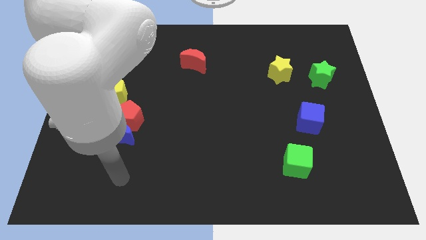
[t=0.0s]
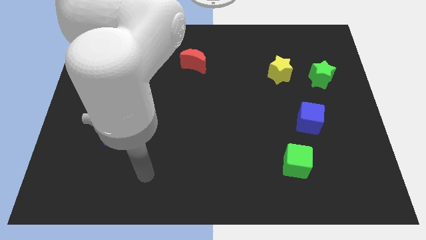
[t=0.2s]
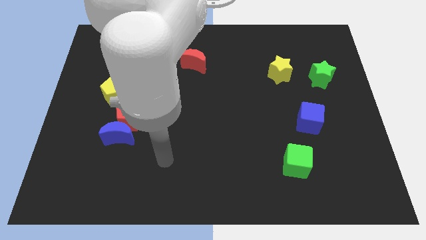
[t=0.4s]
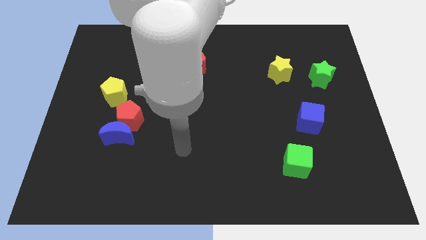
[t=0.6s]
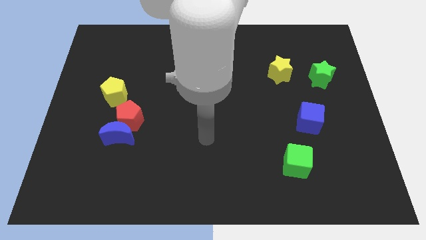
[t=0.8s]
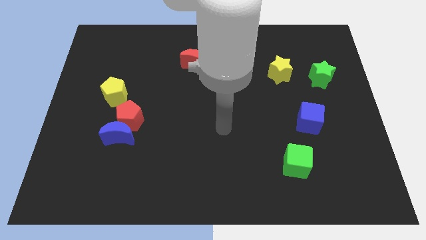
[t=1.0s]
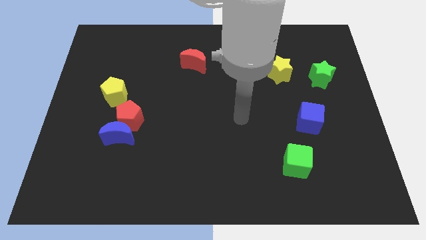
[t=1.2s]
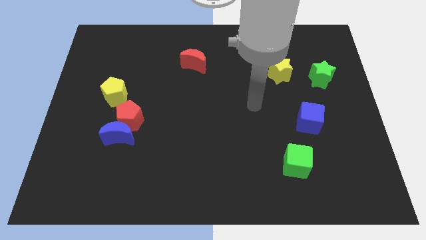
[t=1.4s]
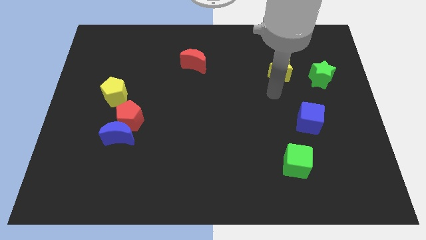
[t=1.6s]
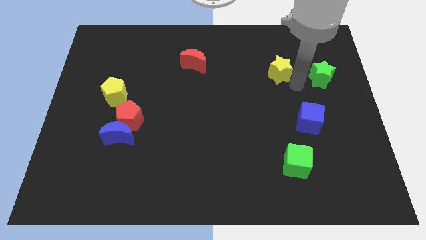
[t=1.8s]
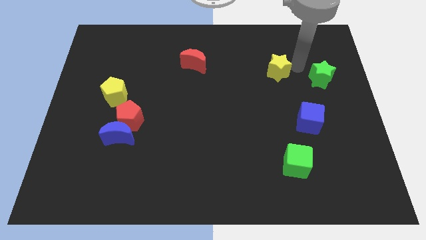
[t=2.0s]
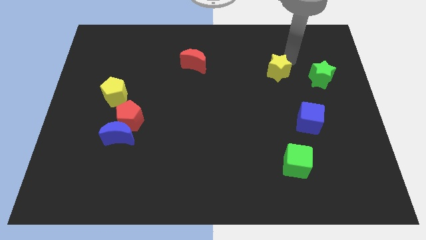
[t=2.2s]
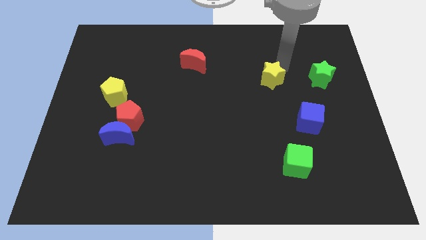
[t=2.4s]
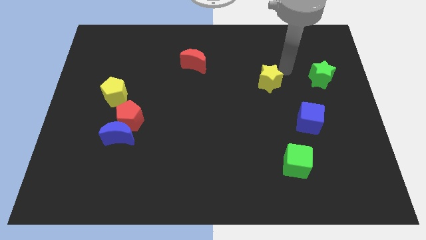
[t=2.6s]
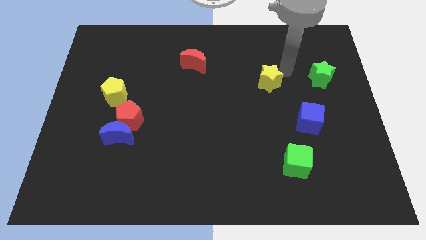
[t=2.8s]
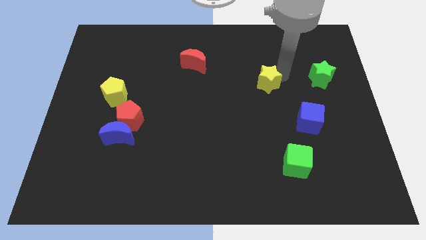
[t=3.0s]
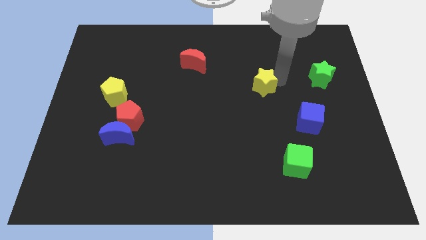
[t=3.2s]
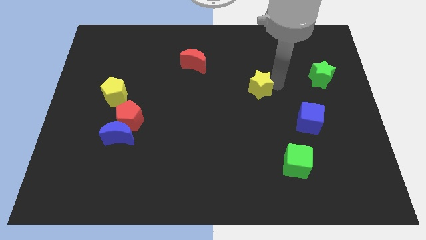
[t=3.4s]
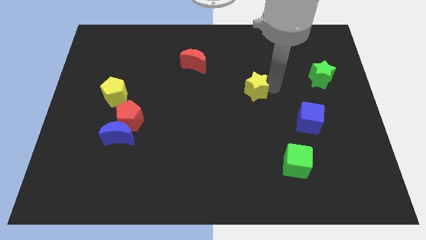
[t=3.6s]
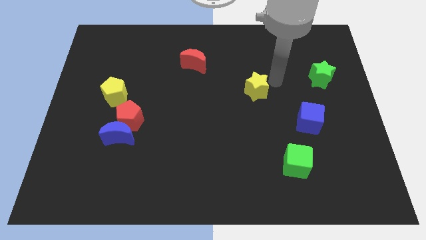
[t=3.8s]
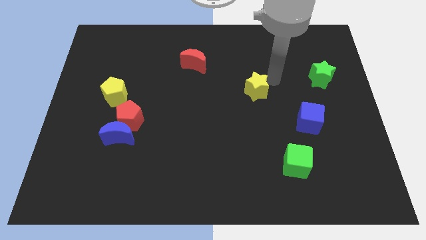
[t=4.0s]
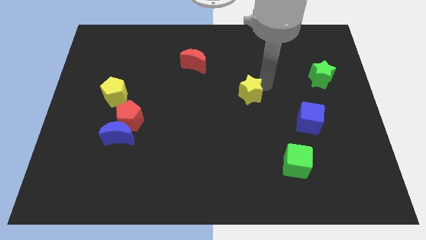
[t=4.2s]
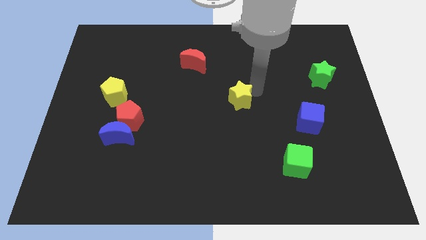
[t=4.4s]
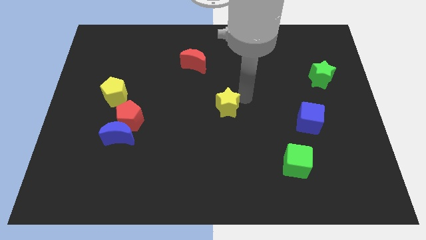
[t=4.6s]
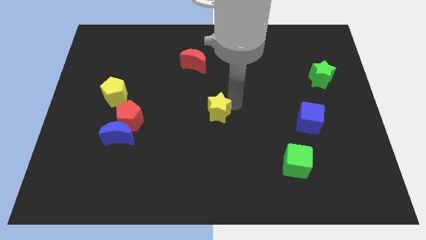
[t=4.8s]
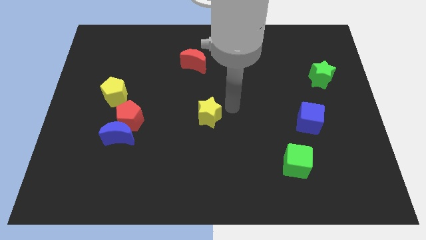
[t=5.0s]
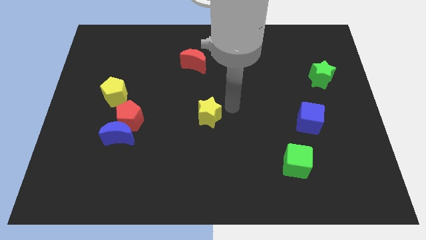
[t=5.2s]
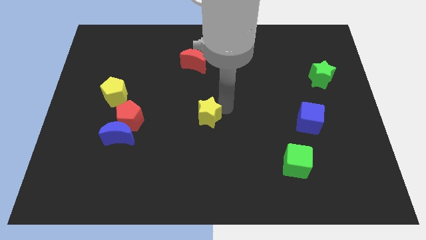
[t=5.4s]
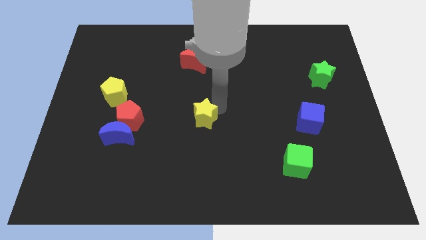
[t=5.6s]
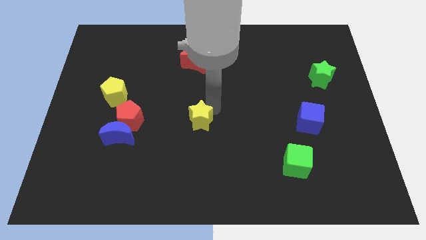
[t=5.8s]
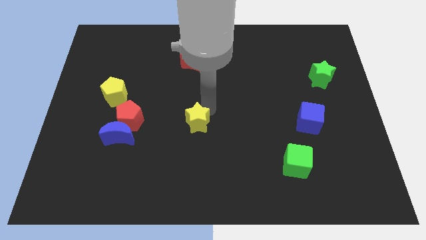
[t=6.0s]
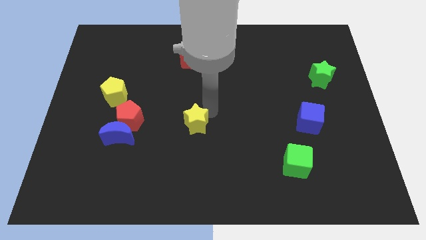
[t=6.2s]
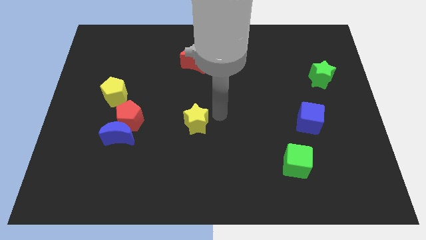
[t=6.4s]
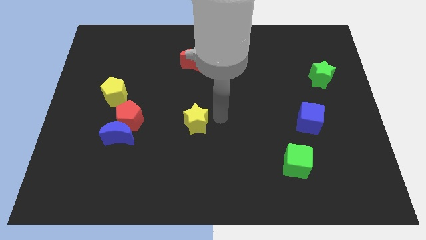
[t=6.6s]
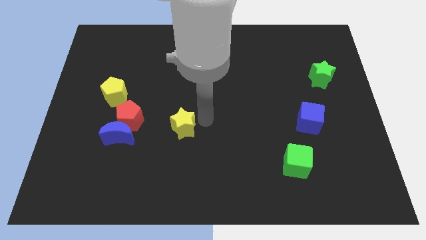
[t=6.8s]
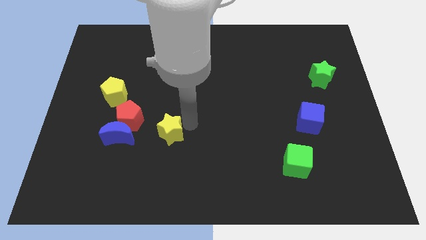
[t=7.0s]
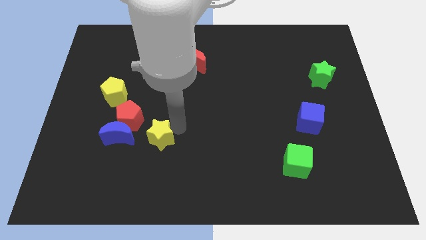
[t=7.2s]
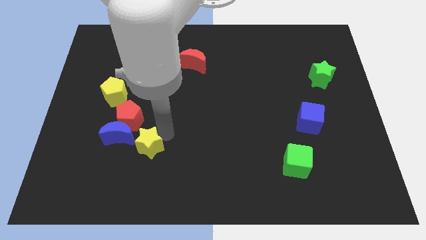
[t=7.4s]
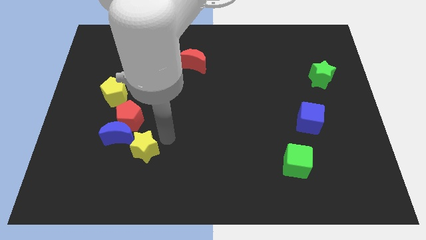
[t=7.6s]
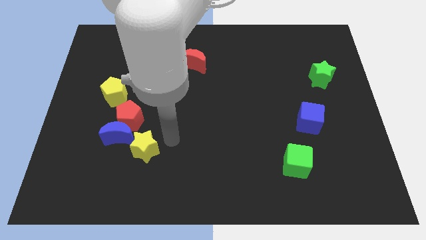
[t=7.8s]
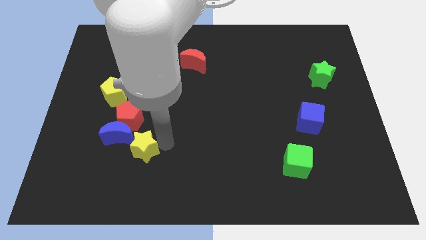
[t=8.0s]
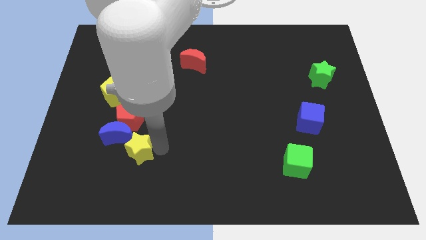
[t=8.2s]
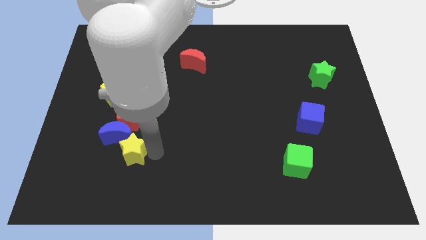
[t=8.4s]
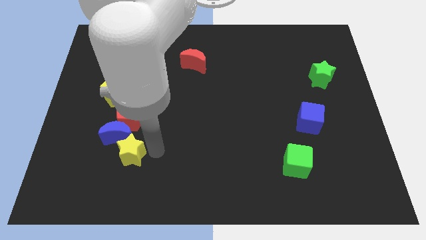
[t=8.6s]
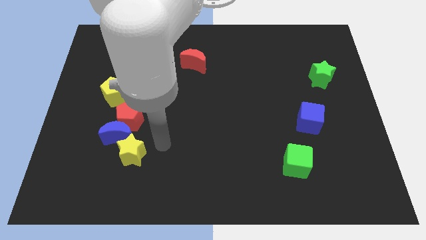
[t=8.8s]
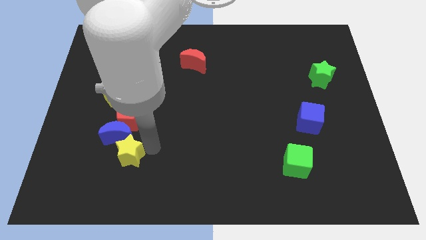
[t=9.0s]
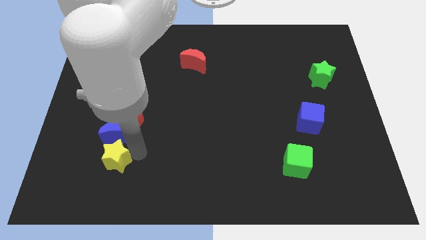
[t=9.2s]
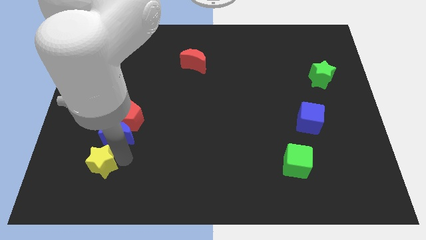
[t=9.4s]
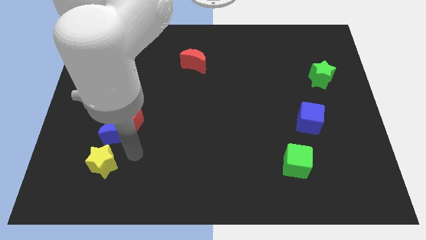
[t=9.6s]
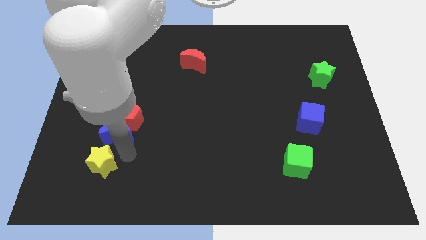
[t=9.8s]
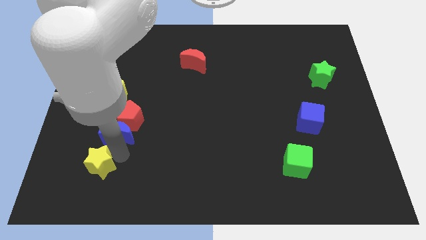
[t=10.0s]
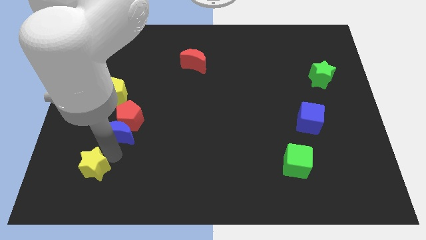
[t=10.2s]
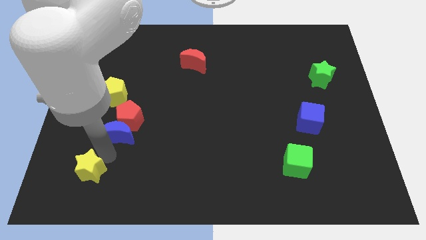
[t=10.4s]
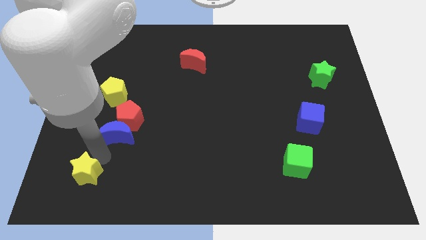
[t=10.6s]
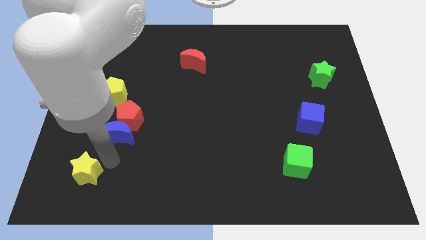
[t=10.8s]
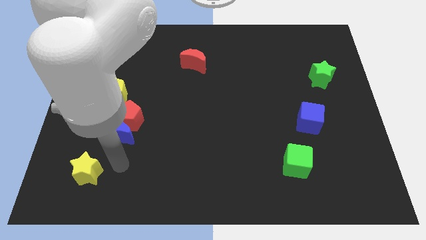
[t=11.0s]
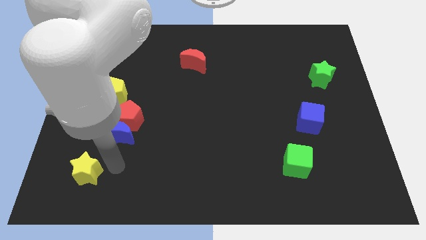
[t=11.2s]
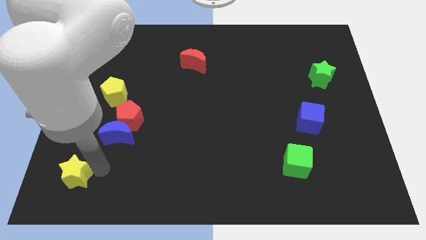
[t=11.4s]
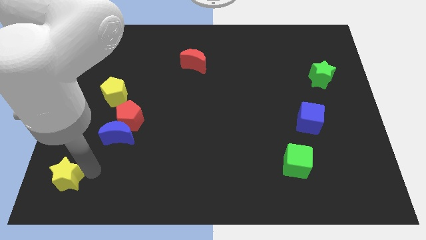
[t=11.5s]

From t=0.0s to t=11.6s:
push the yellow star to the lower left corner
